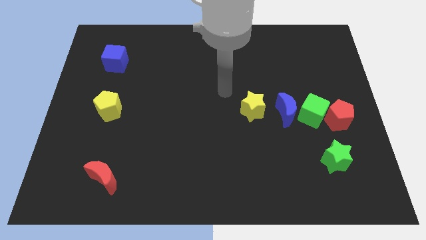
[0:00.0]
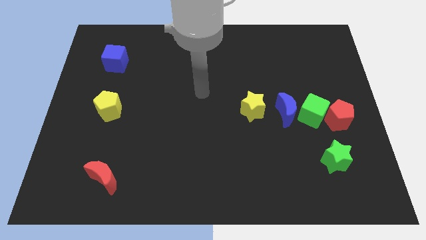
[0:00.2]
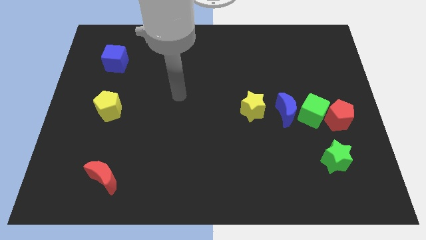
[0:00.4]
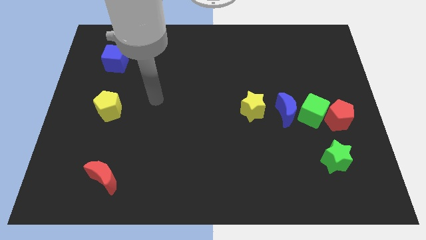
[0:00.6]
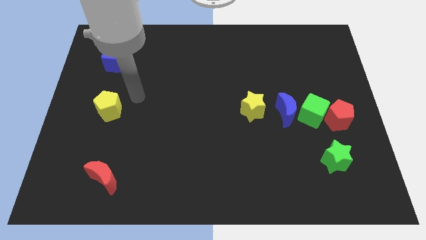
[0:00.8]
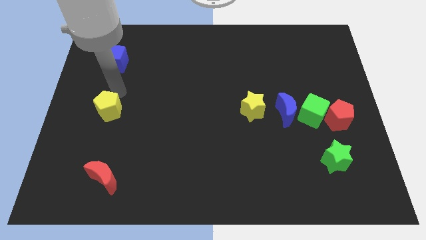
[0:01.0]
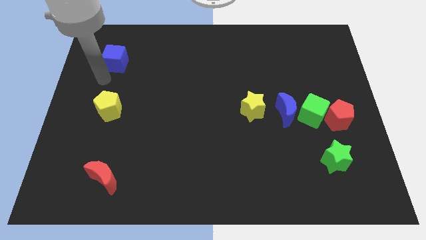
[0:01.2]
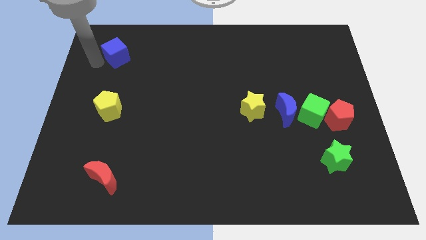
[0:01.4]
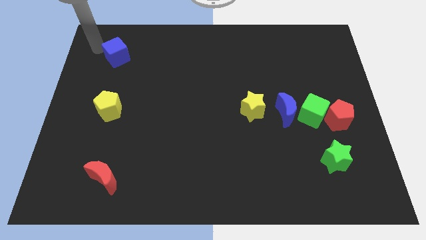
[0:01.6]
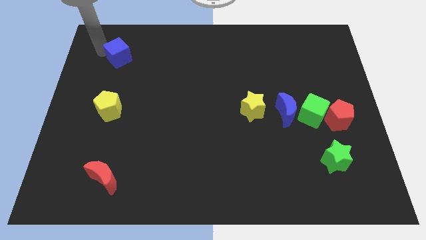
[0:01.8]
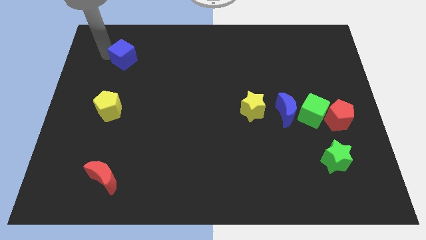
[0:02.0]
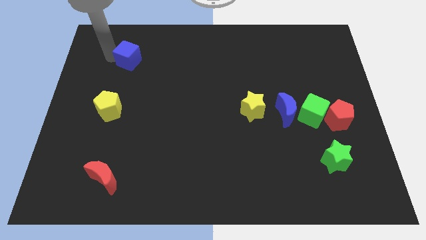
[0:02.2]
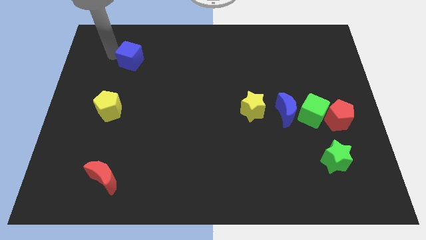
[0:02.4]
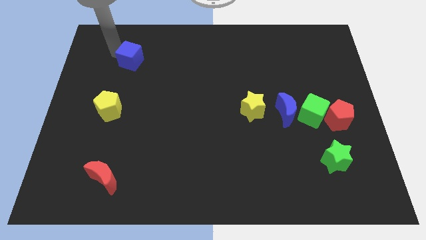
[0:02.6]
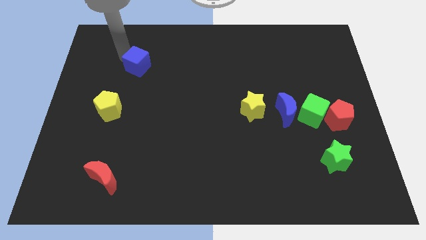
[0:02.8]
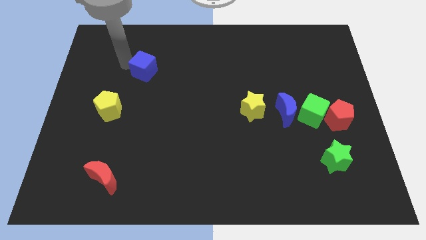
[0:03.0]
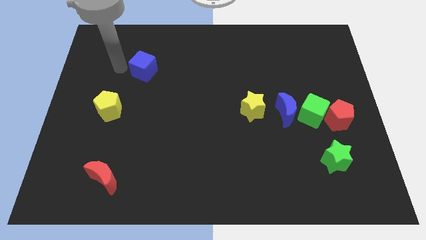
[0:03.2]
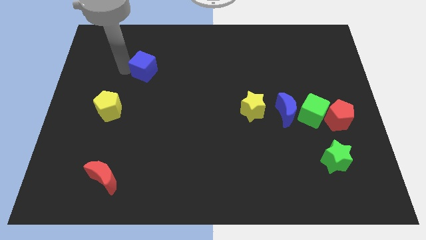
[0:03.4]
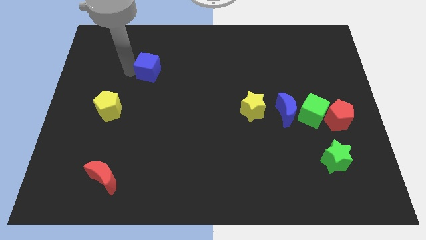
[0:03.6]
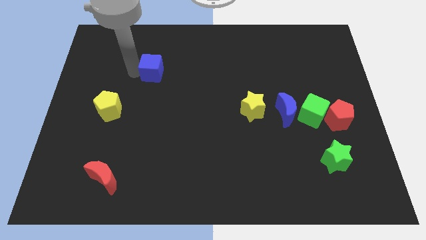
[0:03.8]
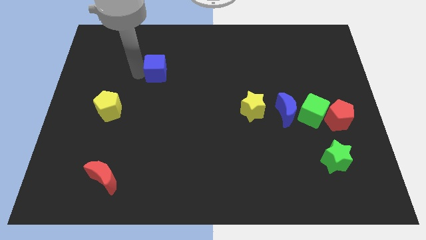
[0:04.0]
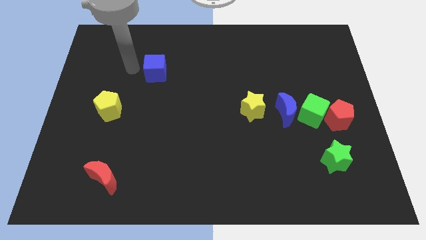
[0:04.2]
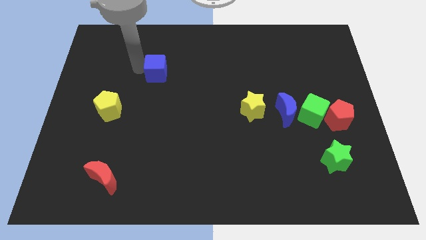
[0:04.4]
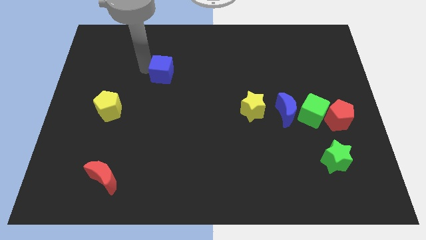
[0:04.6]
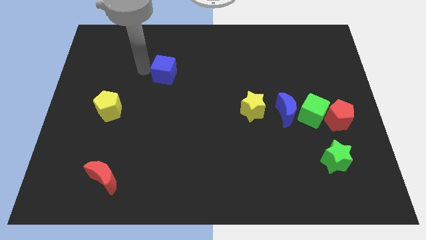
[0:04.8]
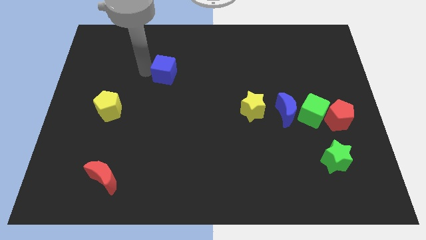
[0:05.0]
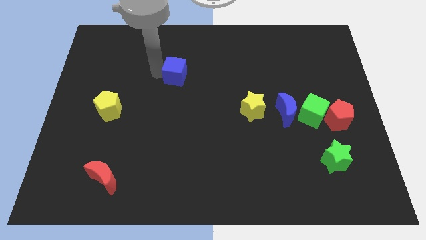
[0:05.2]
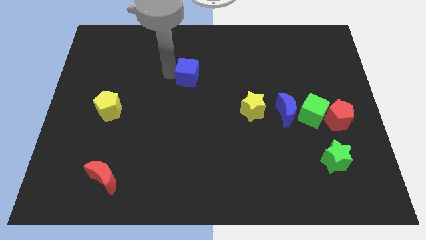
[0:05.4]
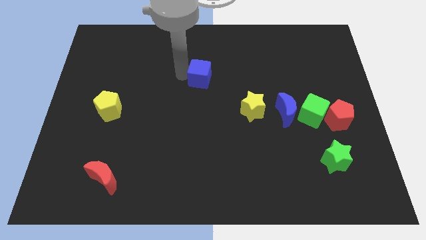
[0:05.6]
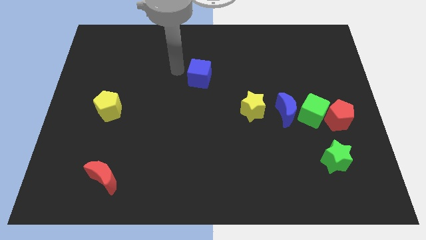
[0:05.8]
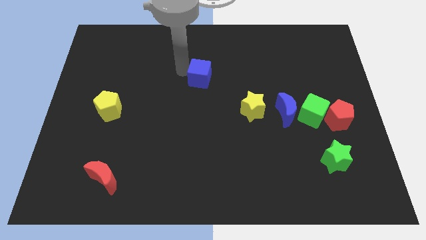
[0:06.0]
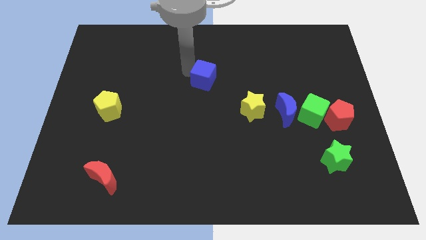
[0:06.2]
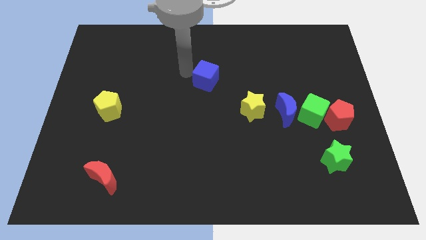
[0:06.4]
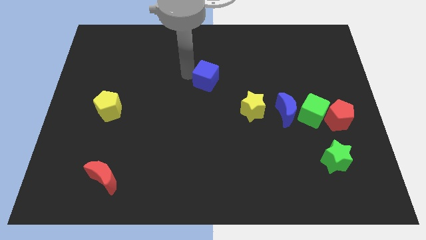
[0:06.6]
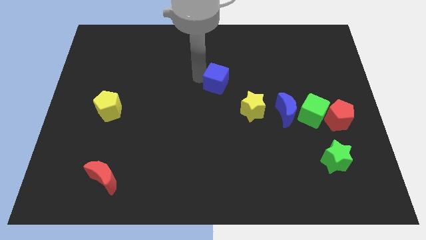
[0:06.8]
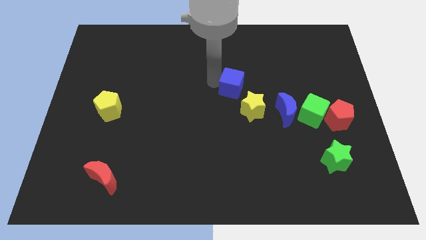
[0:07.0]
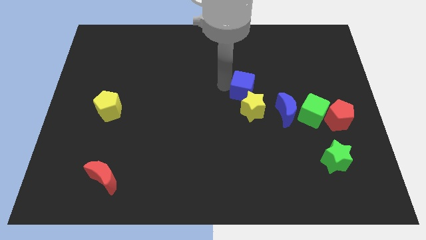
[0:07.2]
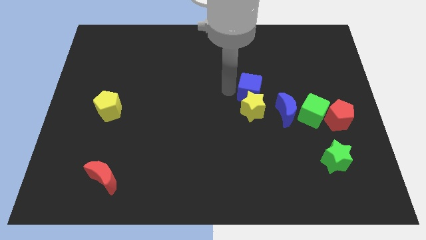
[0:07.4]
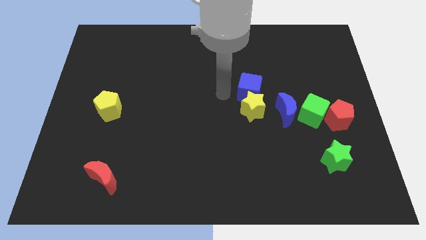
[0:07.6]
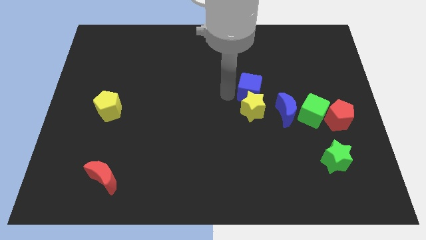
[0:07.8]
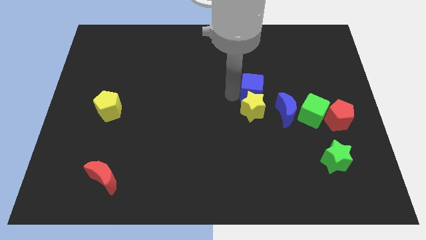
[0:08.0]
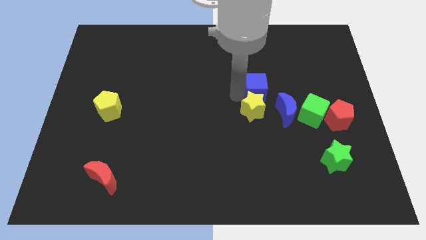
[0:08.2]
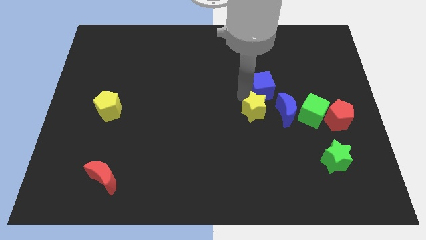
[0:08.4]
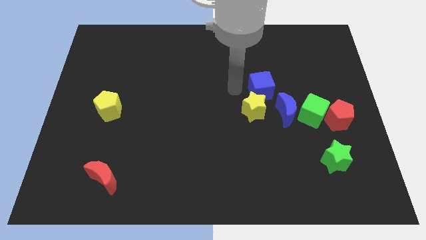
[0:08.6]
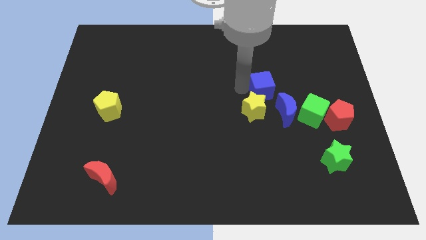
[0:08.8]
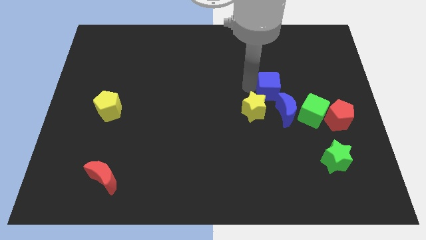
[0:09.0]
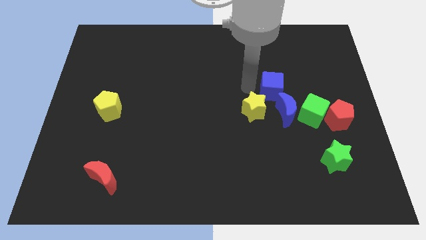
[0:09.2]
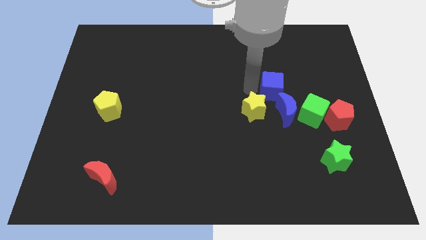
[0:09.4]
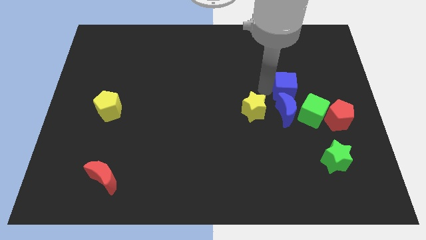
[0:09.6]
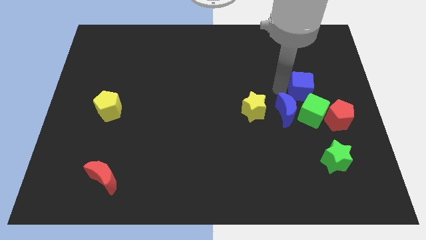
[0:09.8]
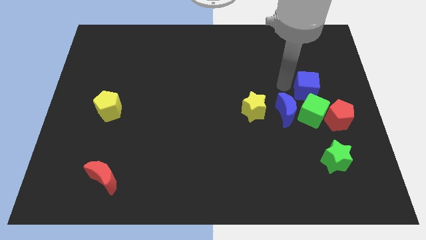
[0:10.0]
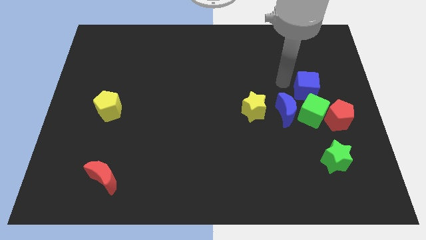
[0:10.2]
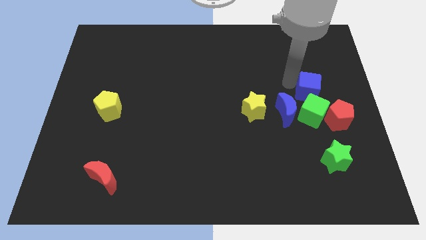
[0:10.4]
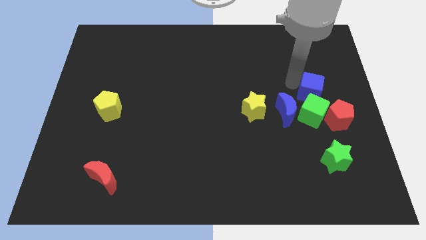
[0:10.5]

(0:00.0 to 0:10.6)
put the blue cube to the top right side of the green cube

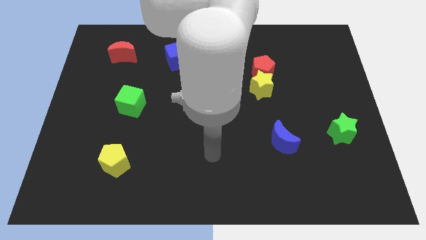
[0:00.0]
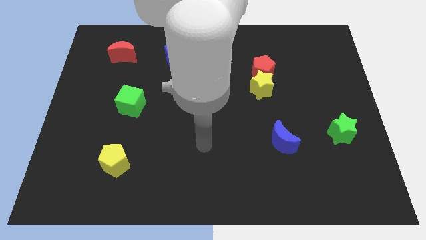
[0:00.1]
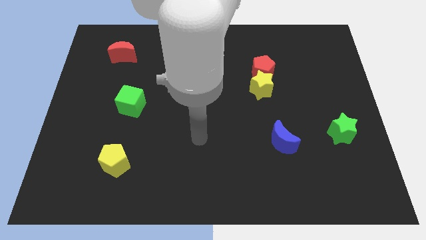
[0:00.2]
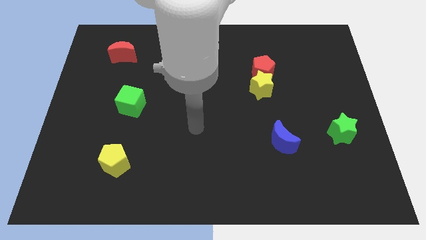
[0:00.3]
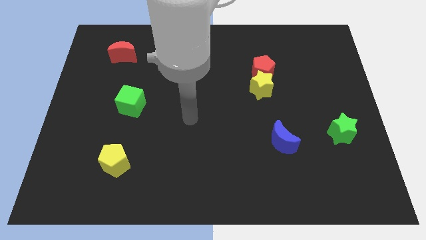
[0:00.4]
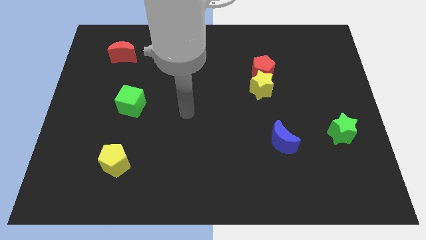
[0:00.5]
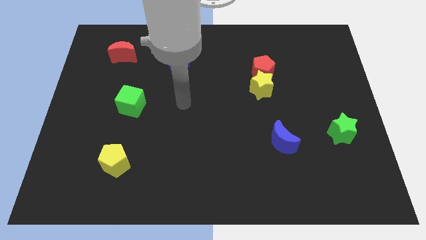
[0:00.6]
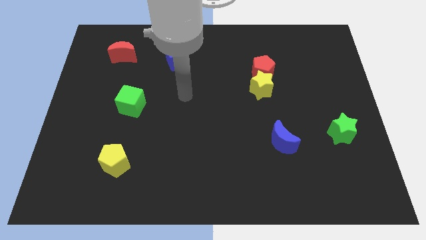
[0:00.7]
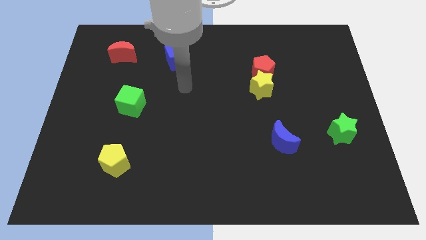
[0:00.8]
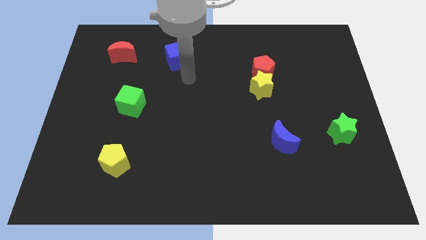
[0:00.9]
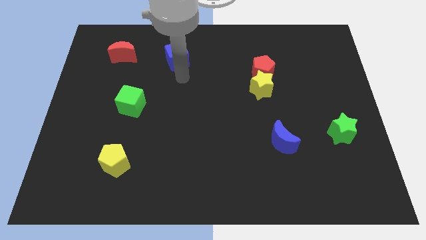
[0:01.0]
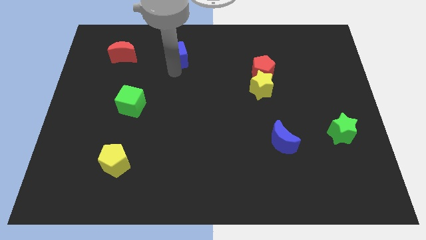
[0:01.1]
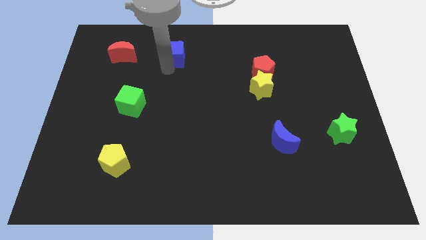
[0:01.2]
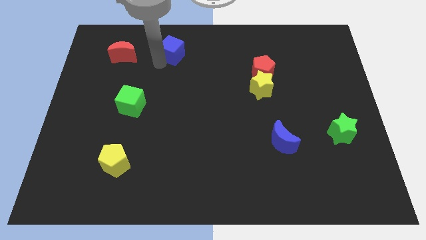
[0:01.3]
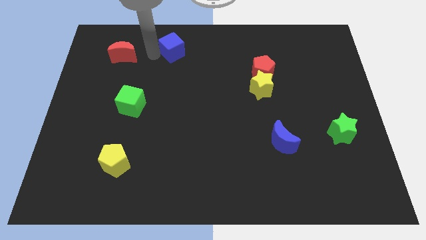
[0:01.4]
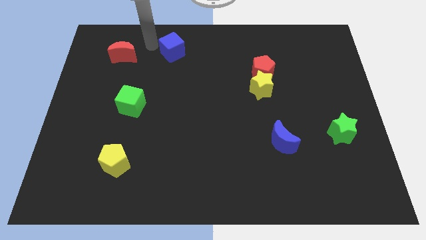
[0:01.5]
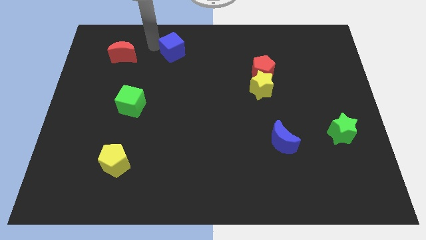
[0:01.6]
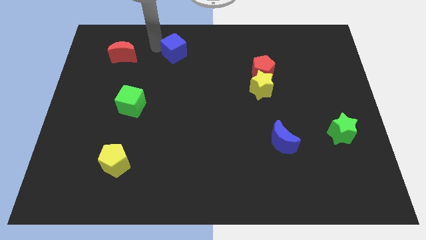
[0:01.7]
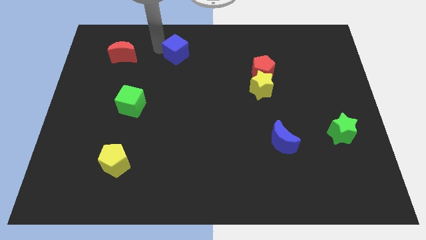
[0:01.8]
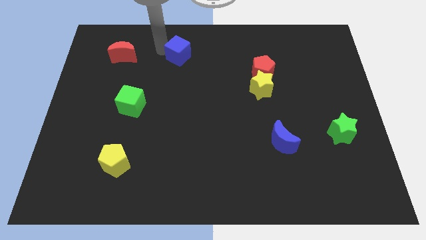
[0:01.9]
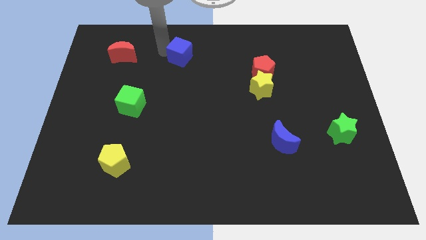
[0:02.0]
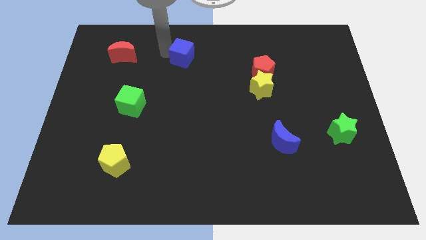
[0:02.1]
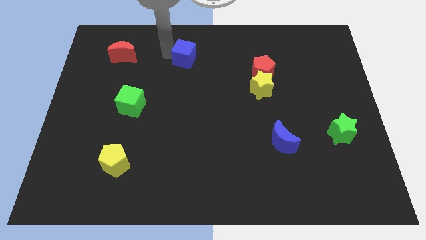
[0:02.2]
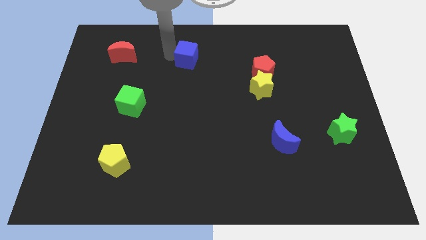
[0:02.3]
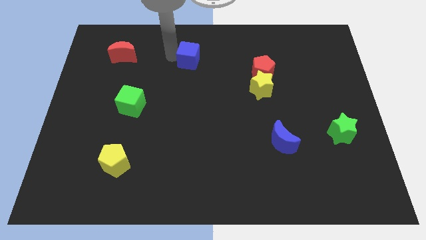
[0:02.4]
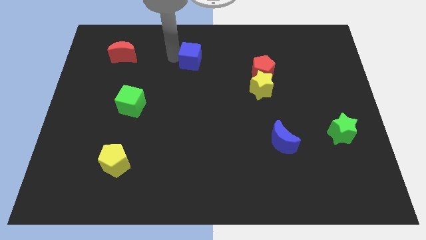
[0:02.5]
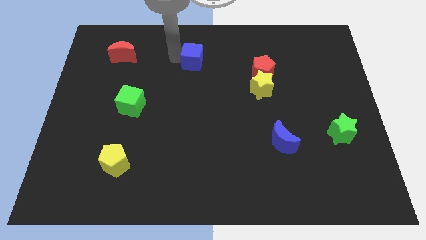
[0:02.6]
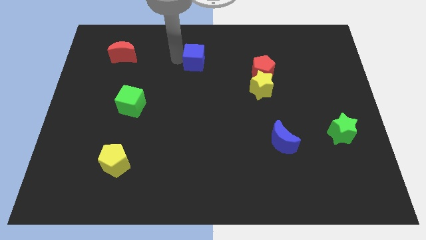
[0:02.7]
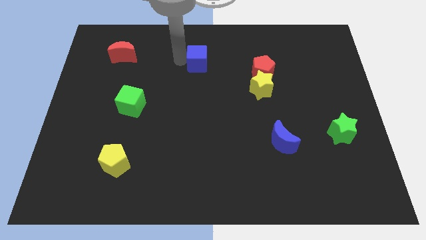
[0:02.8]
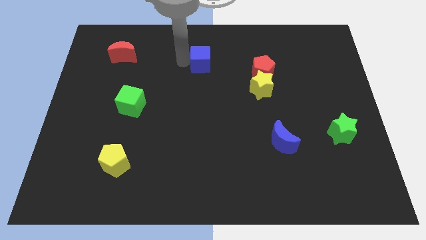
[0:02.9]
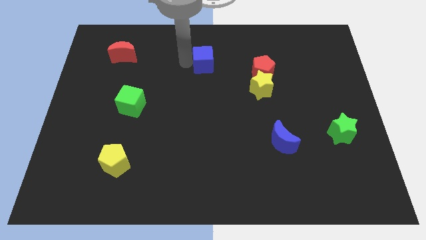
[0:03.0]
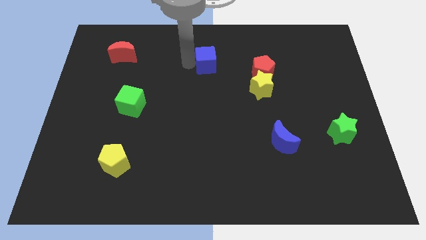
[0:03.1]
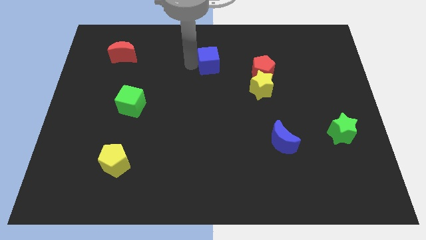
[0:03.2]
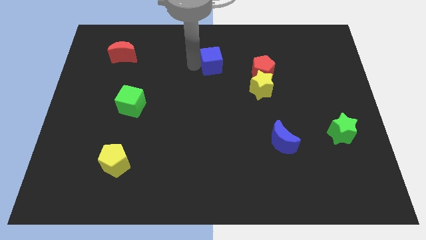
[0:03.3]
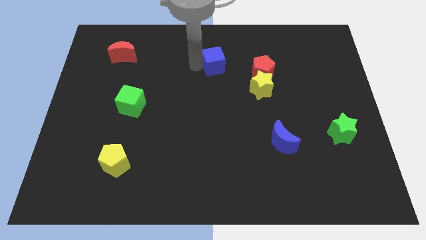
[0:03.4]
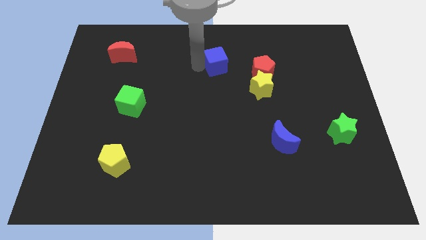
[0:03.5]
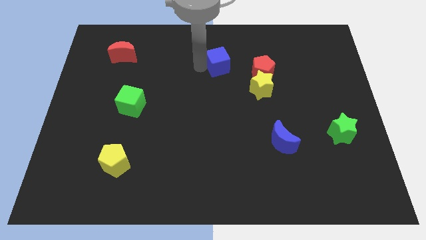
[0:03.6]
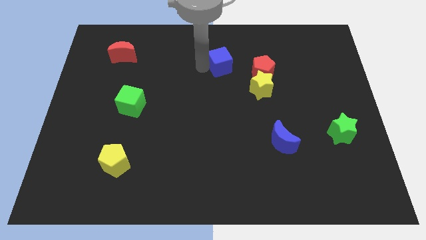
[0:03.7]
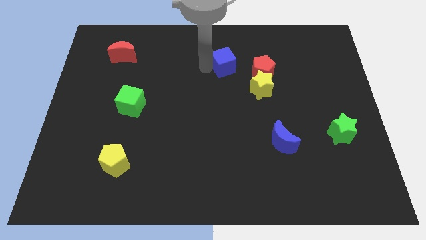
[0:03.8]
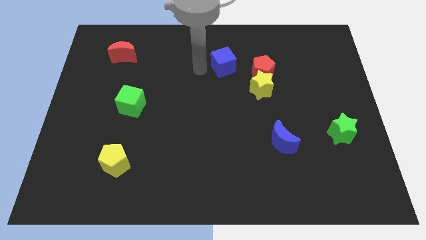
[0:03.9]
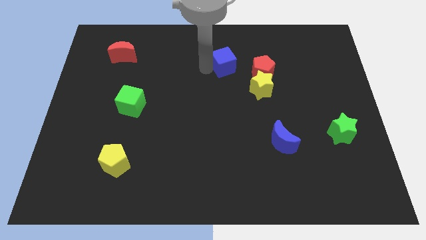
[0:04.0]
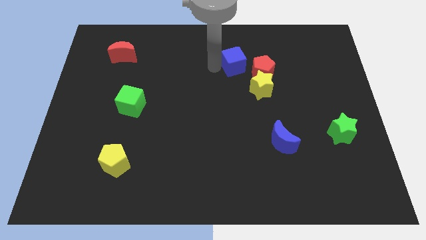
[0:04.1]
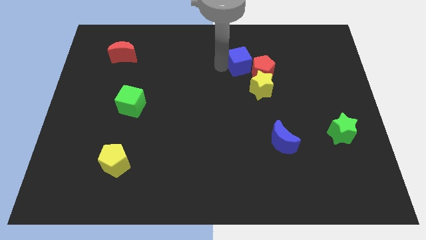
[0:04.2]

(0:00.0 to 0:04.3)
push the blue cube to the top side of the yellow star
